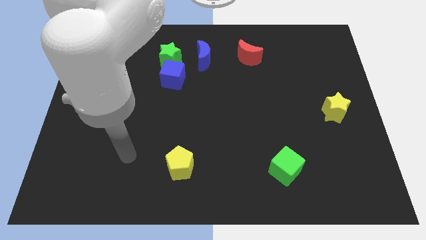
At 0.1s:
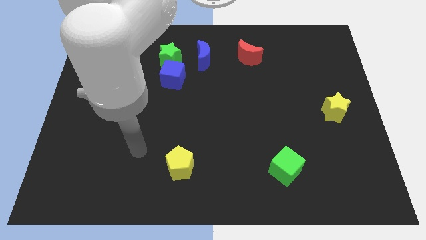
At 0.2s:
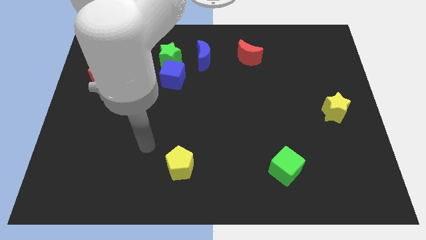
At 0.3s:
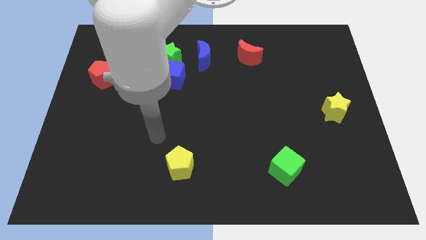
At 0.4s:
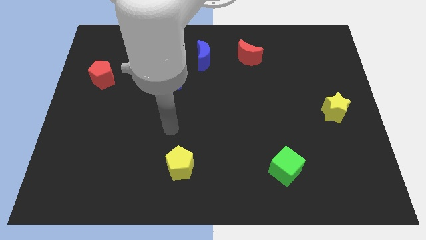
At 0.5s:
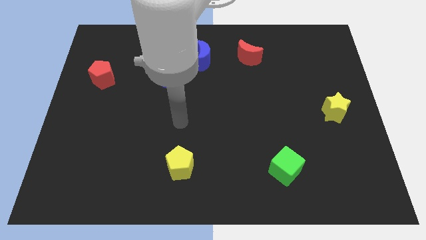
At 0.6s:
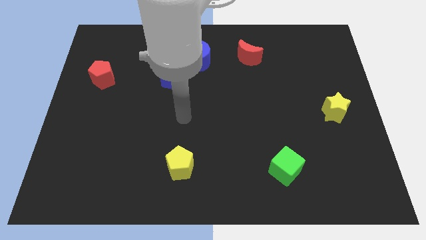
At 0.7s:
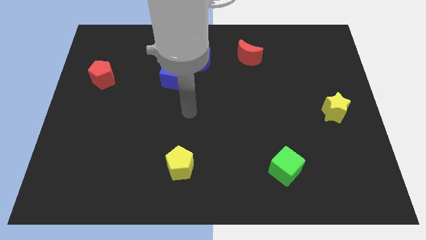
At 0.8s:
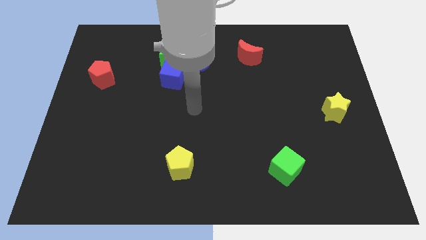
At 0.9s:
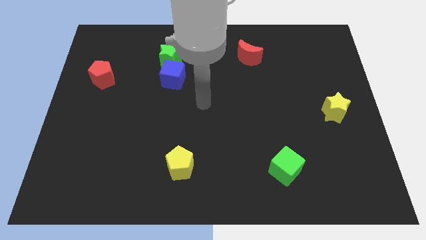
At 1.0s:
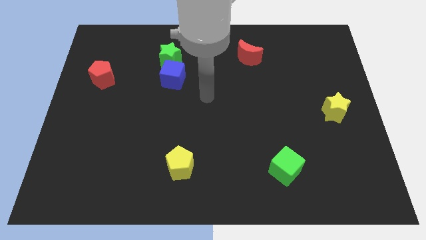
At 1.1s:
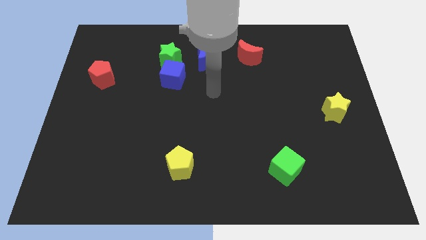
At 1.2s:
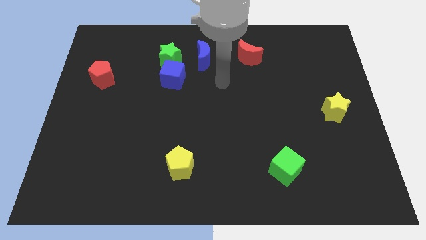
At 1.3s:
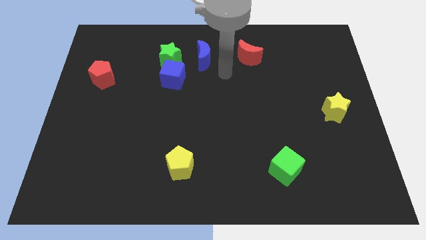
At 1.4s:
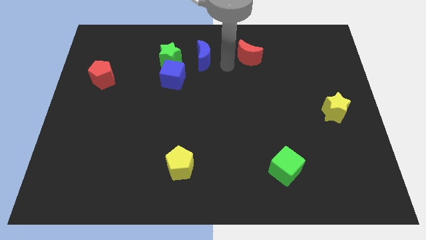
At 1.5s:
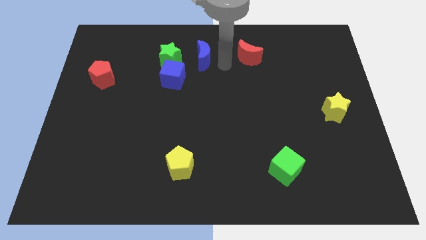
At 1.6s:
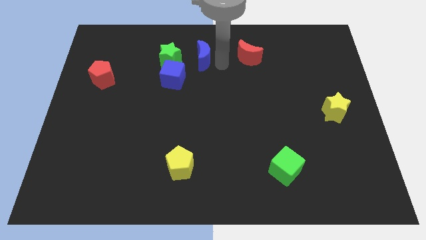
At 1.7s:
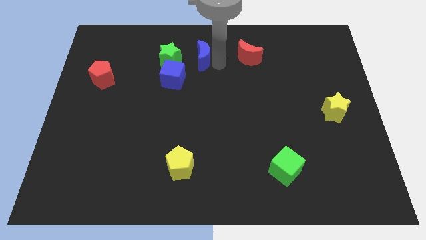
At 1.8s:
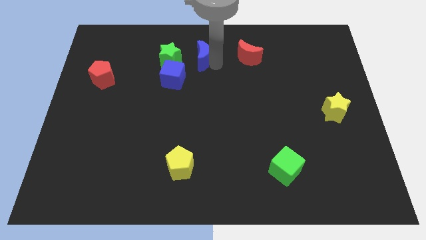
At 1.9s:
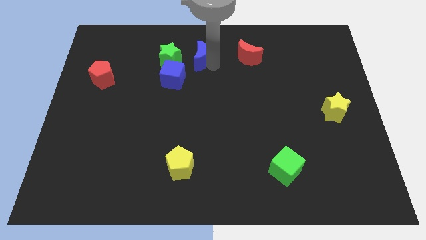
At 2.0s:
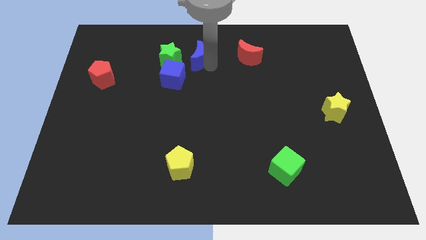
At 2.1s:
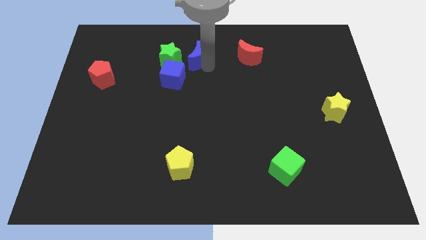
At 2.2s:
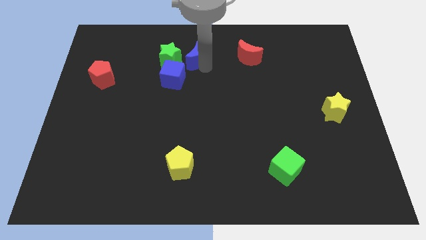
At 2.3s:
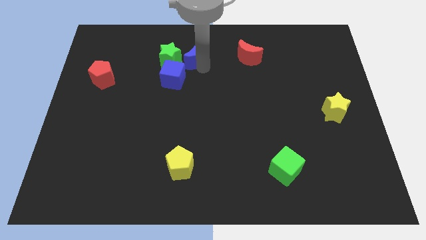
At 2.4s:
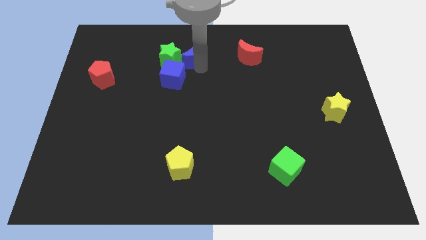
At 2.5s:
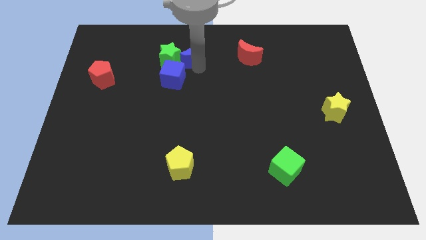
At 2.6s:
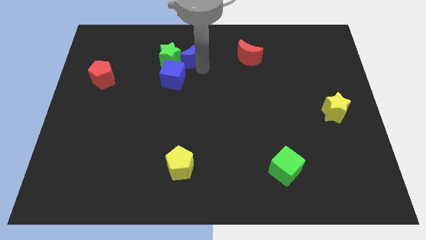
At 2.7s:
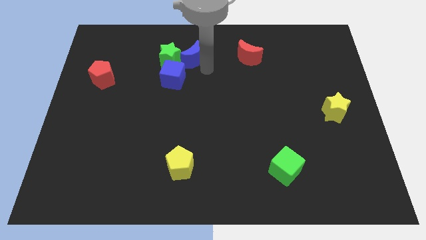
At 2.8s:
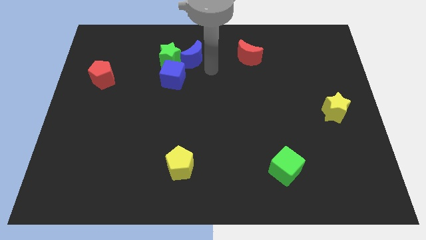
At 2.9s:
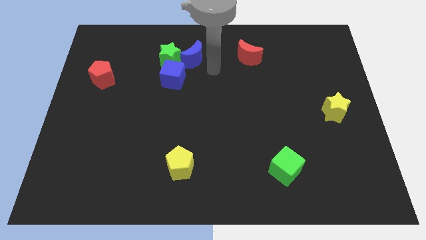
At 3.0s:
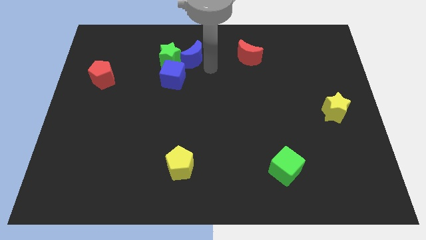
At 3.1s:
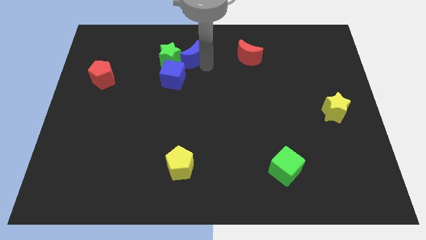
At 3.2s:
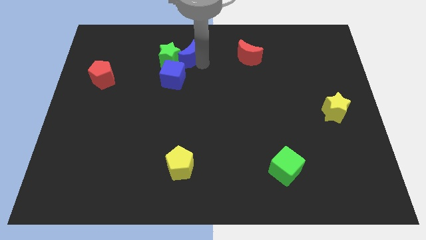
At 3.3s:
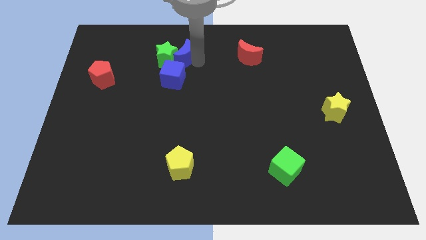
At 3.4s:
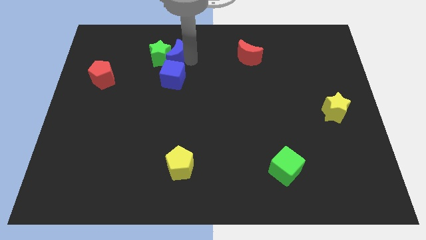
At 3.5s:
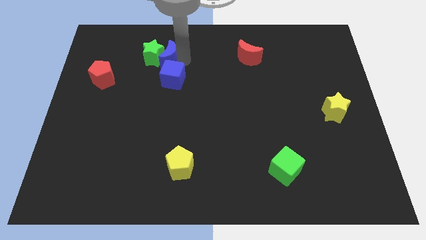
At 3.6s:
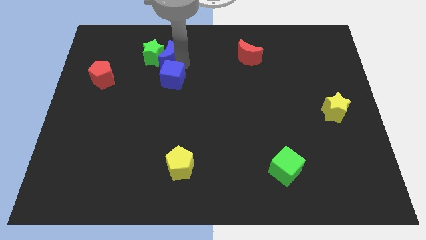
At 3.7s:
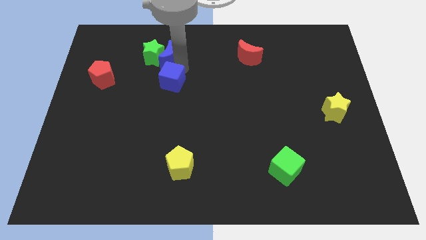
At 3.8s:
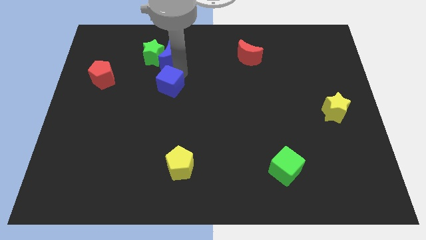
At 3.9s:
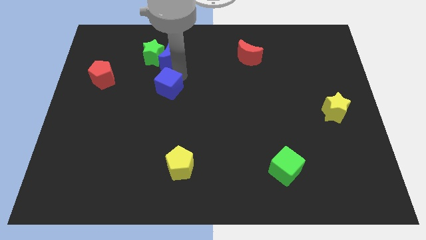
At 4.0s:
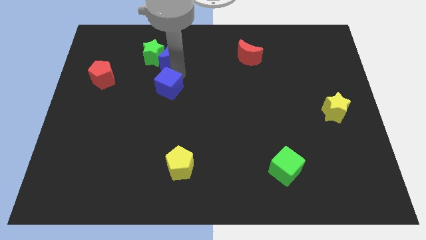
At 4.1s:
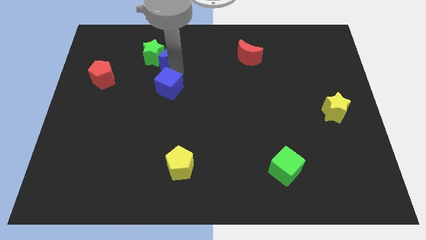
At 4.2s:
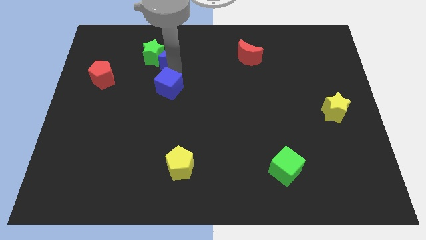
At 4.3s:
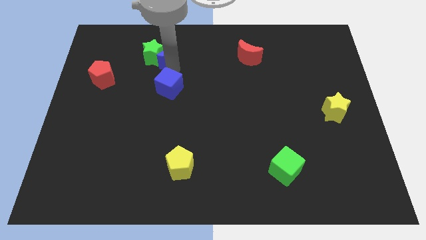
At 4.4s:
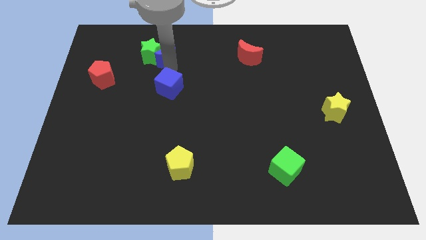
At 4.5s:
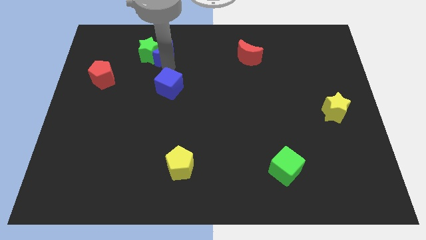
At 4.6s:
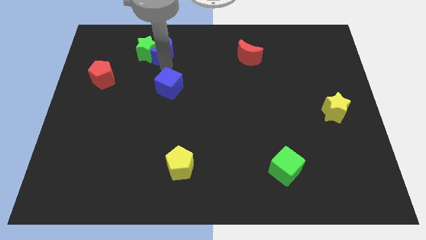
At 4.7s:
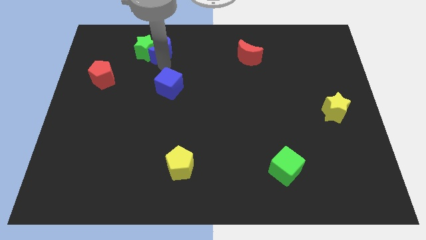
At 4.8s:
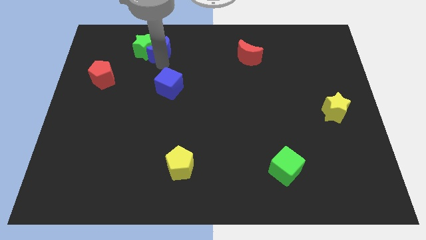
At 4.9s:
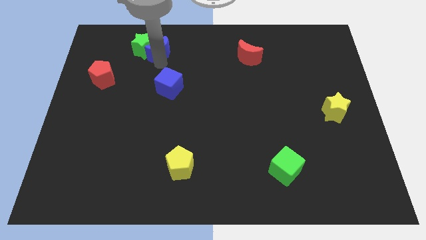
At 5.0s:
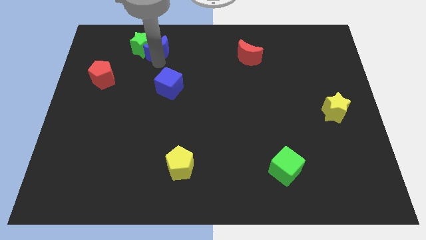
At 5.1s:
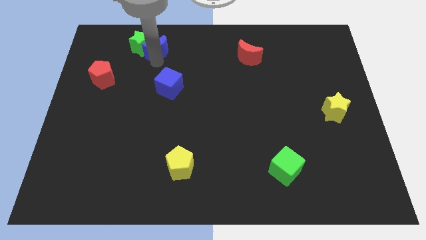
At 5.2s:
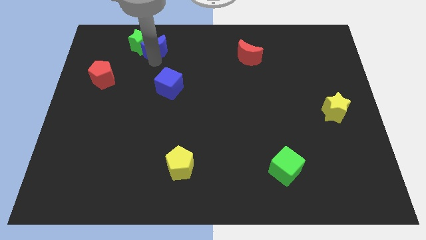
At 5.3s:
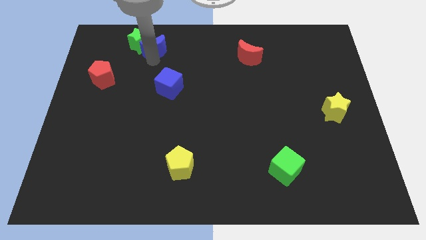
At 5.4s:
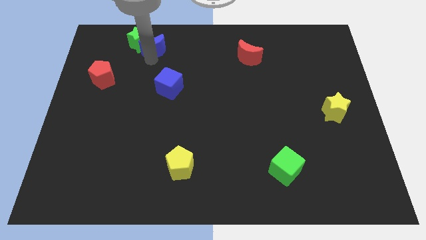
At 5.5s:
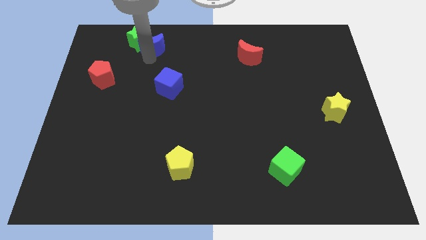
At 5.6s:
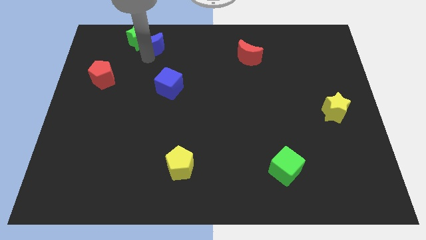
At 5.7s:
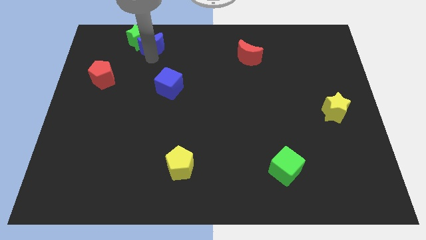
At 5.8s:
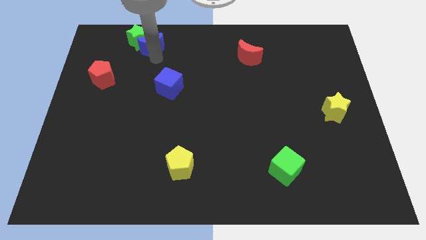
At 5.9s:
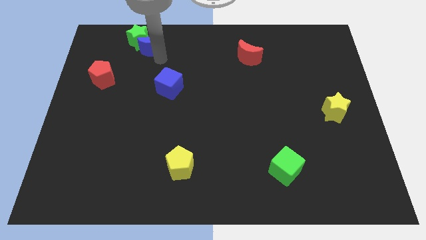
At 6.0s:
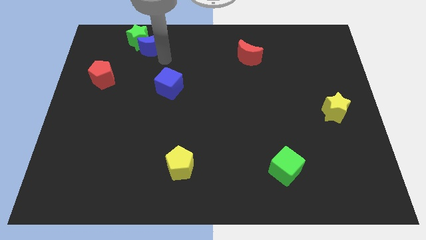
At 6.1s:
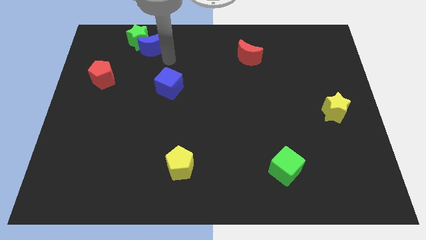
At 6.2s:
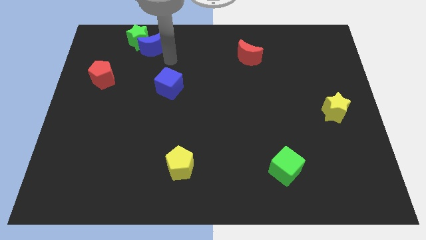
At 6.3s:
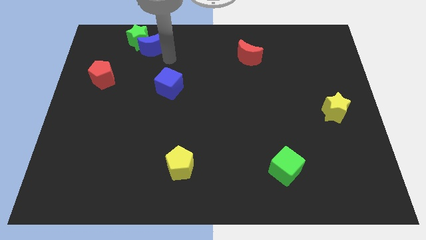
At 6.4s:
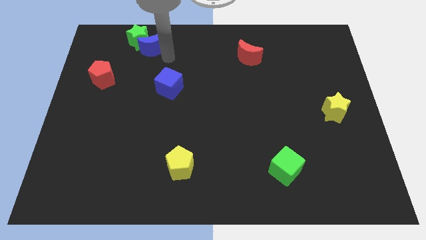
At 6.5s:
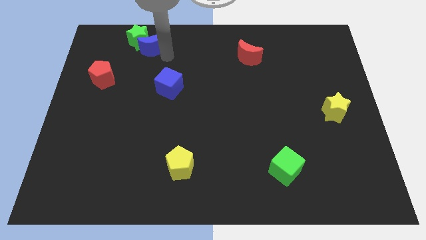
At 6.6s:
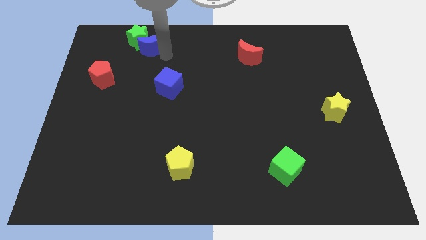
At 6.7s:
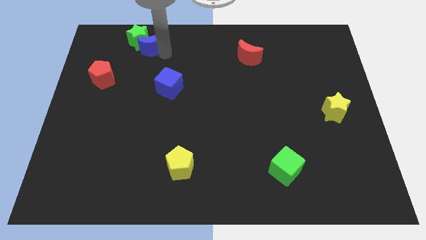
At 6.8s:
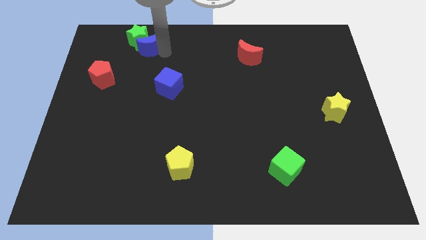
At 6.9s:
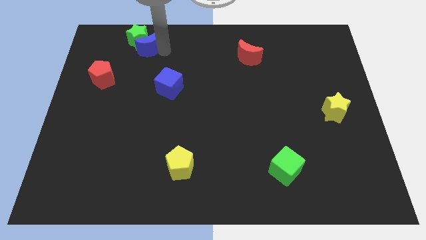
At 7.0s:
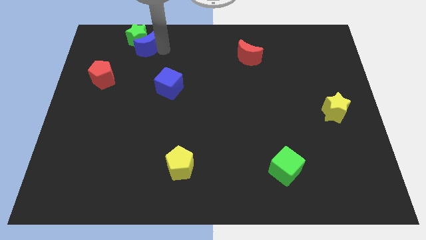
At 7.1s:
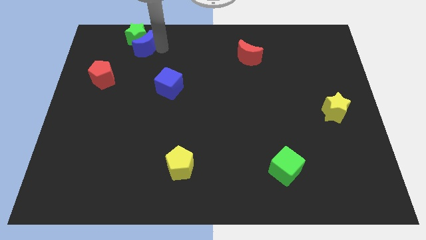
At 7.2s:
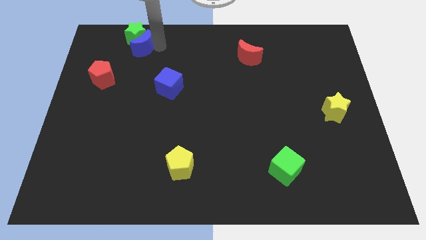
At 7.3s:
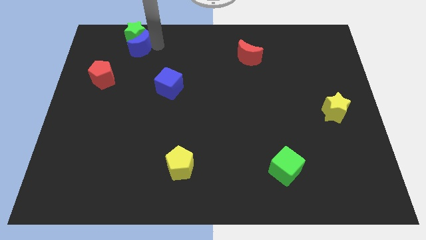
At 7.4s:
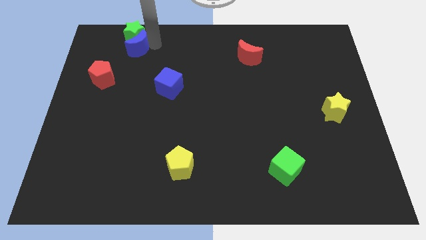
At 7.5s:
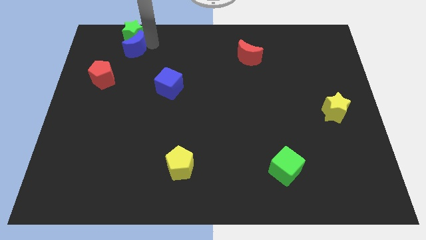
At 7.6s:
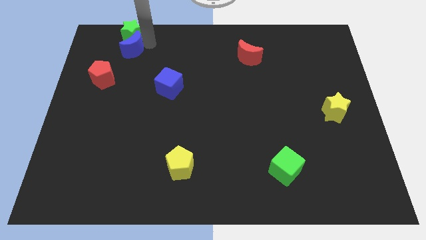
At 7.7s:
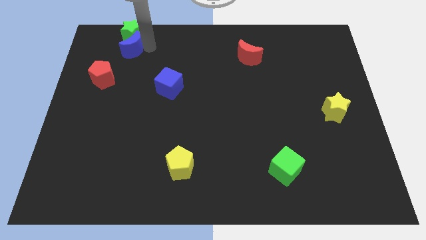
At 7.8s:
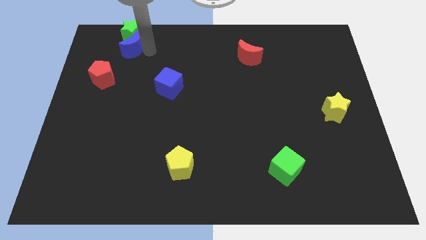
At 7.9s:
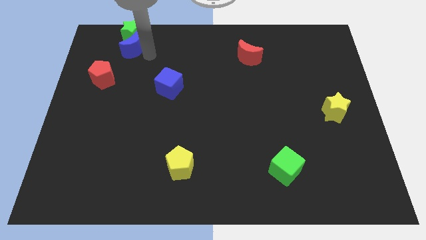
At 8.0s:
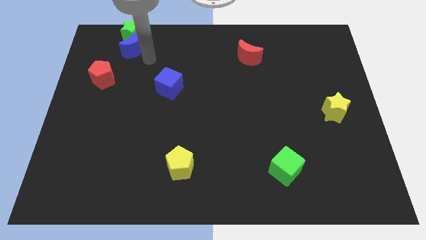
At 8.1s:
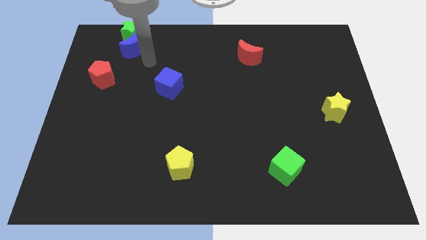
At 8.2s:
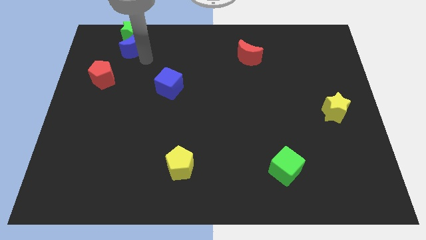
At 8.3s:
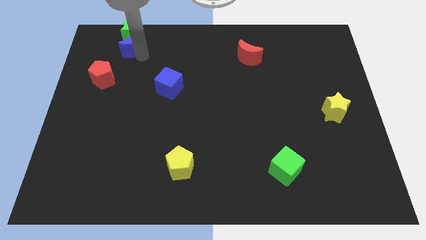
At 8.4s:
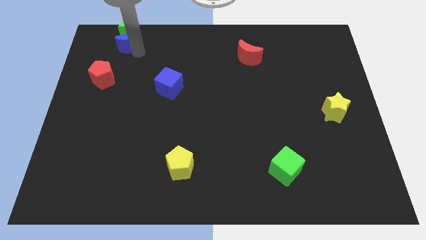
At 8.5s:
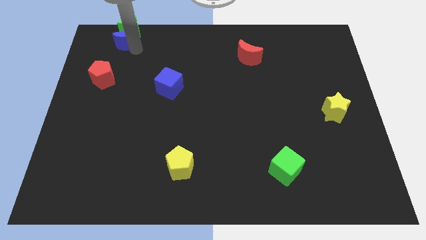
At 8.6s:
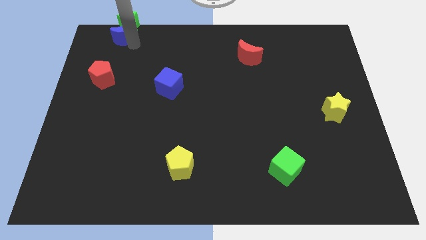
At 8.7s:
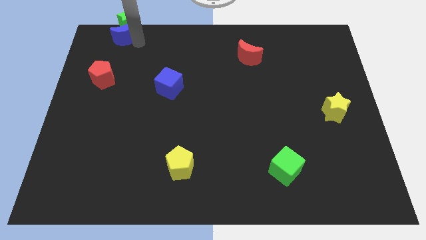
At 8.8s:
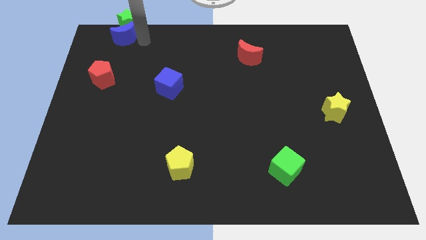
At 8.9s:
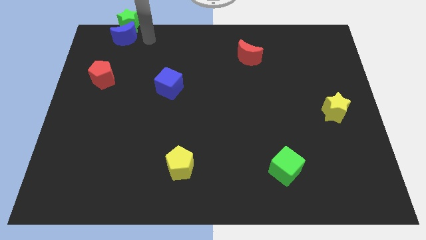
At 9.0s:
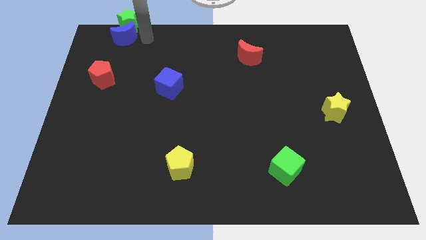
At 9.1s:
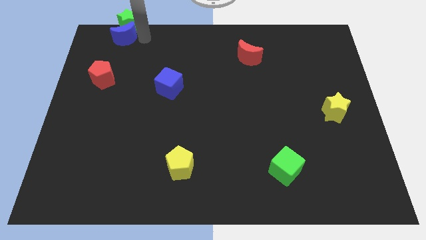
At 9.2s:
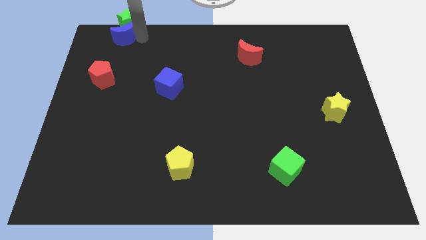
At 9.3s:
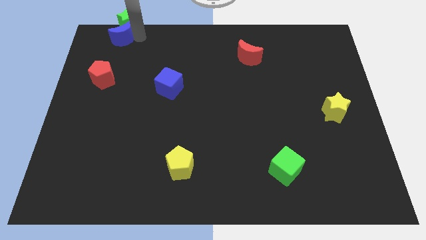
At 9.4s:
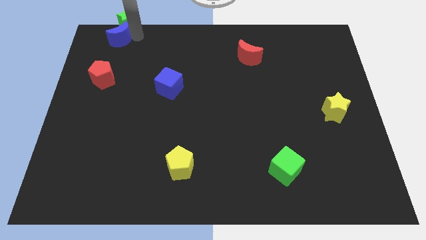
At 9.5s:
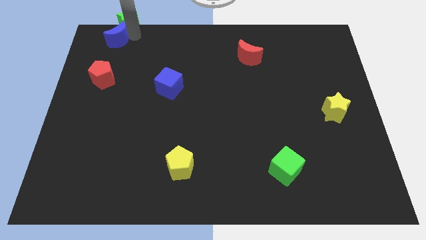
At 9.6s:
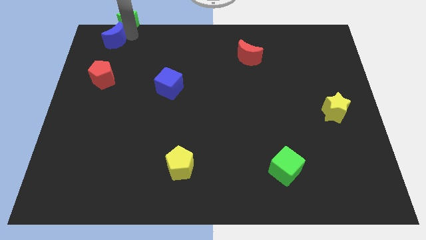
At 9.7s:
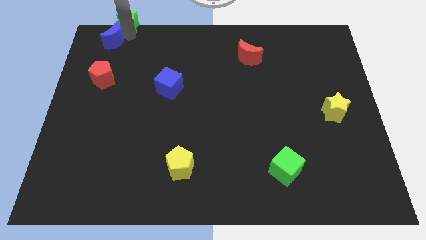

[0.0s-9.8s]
slide the blue moon to the top left corner
